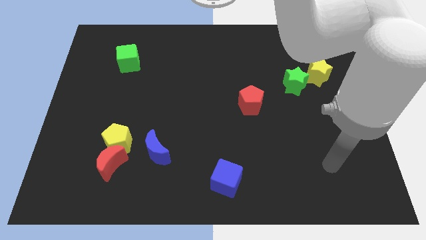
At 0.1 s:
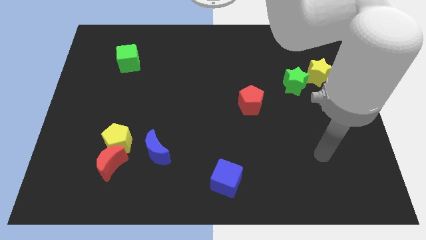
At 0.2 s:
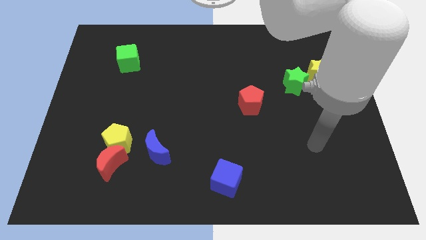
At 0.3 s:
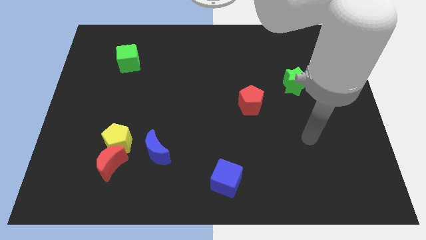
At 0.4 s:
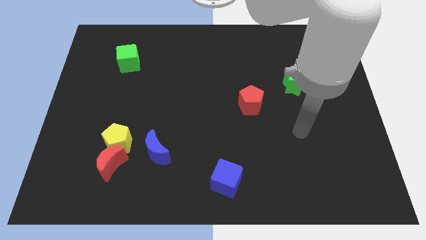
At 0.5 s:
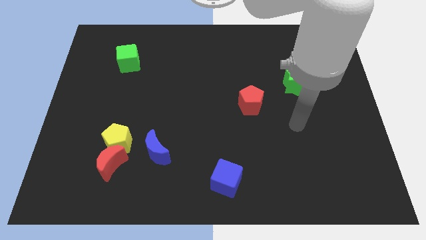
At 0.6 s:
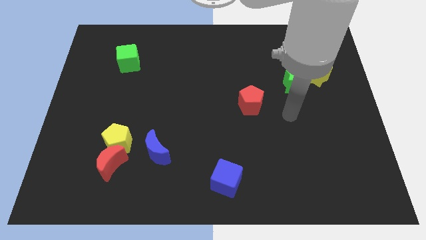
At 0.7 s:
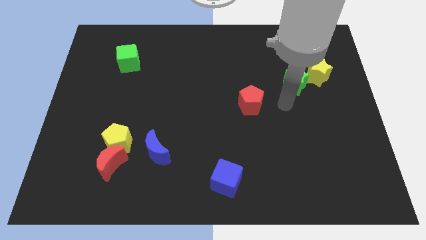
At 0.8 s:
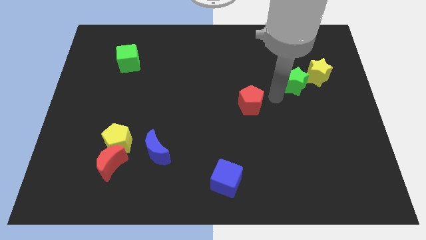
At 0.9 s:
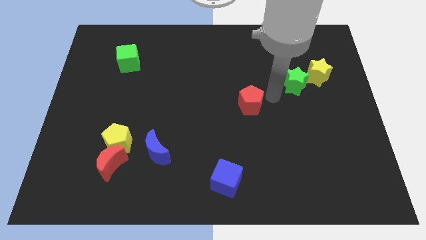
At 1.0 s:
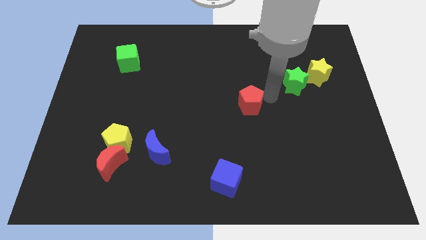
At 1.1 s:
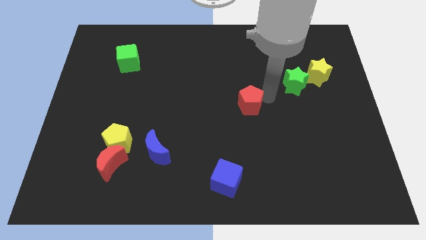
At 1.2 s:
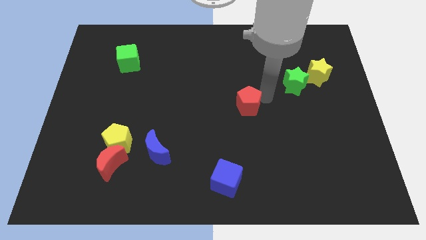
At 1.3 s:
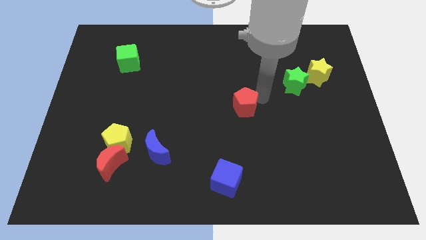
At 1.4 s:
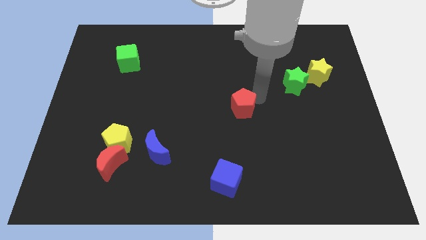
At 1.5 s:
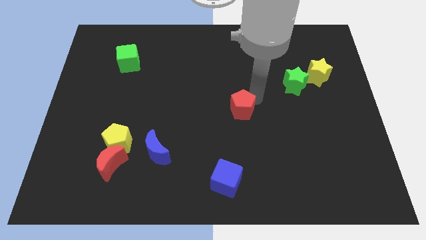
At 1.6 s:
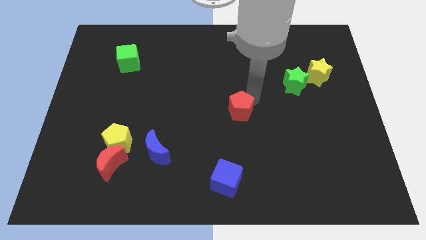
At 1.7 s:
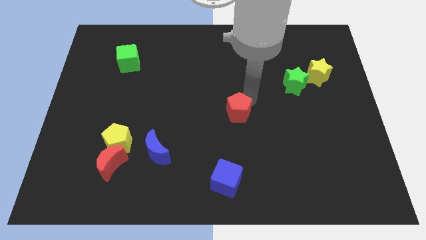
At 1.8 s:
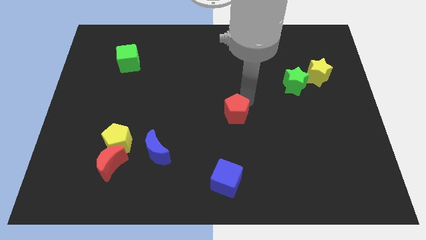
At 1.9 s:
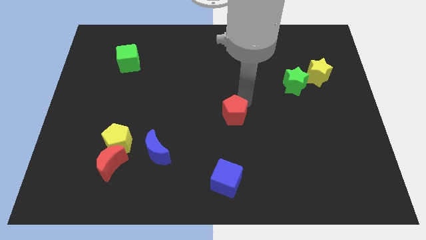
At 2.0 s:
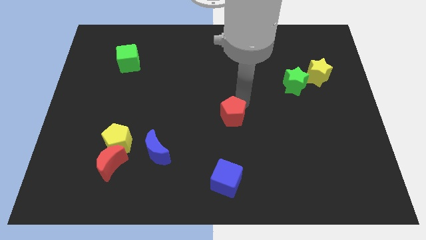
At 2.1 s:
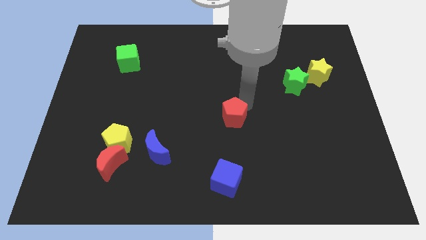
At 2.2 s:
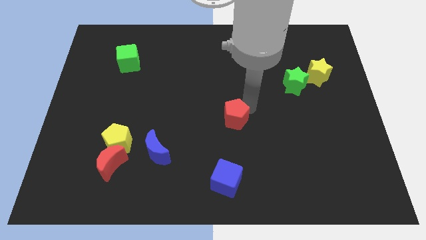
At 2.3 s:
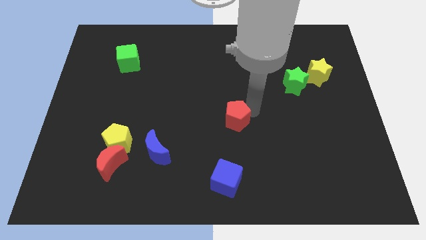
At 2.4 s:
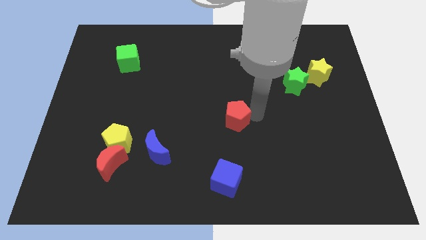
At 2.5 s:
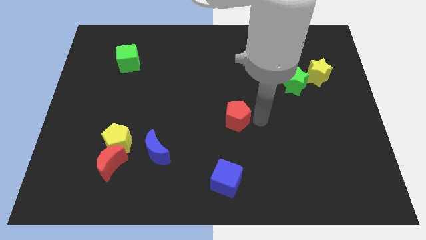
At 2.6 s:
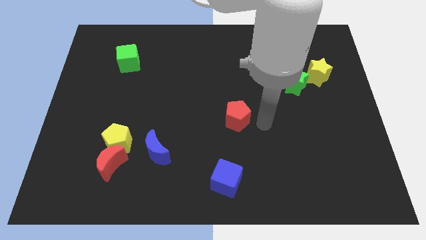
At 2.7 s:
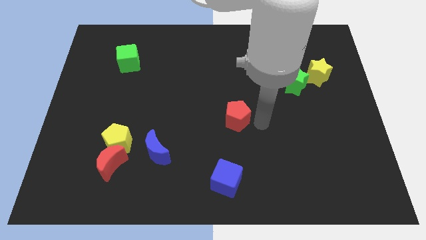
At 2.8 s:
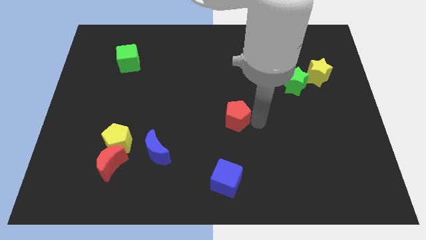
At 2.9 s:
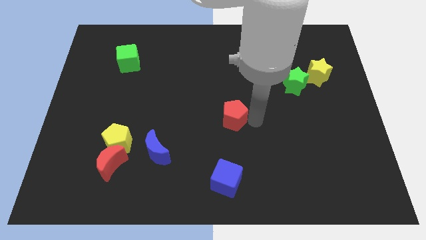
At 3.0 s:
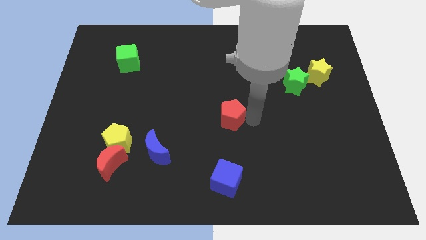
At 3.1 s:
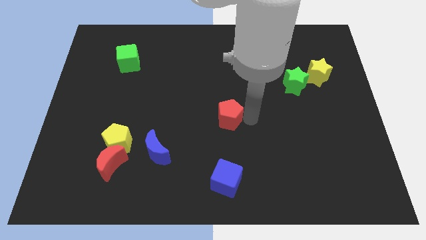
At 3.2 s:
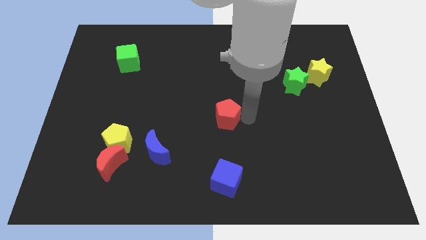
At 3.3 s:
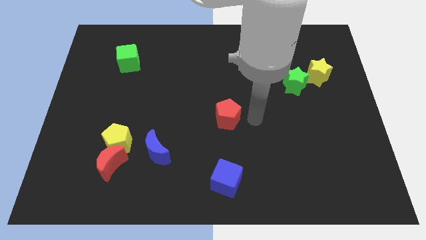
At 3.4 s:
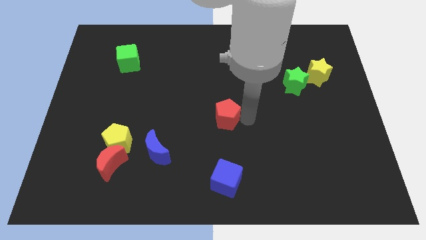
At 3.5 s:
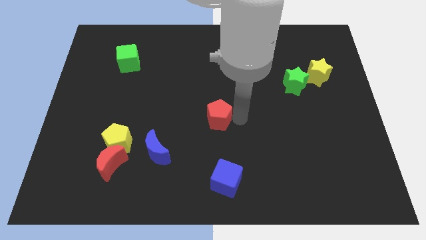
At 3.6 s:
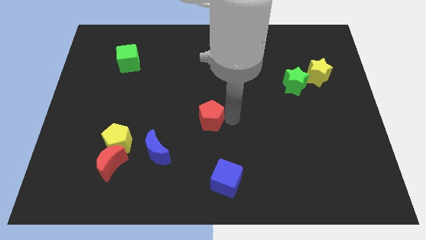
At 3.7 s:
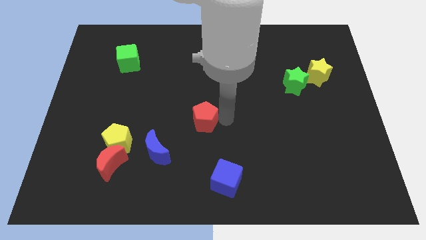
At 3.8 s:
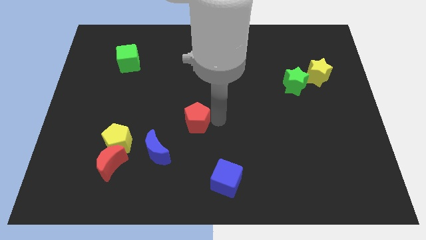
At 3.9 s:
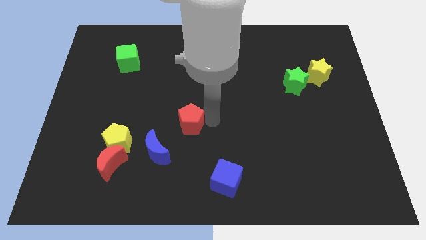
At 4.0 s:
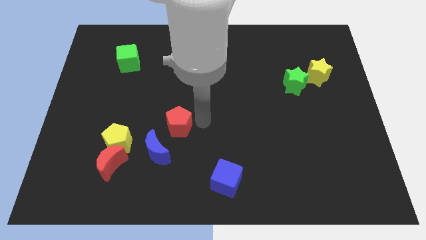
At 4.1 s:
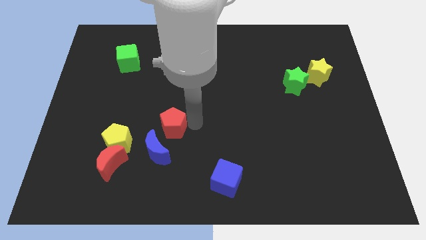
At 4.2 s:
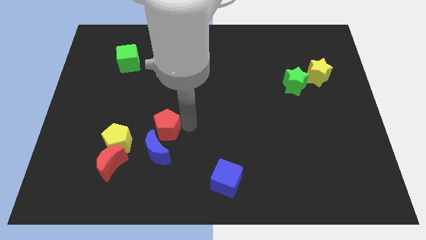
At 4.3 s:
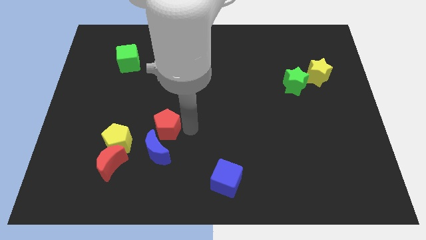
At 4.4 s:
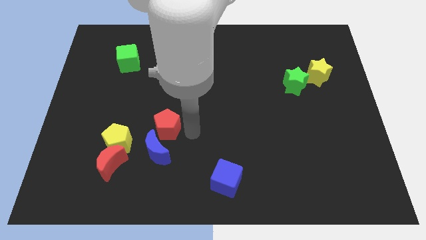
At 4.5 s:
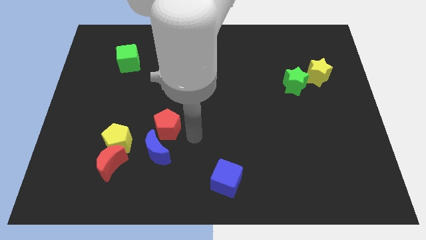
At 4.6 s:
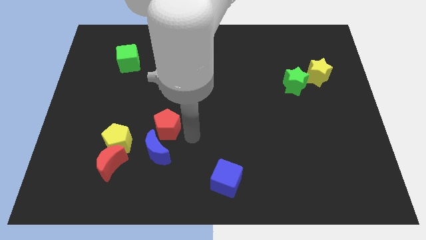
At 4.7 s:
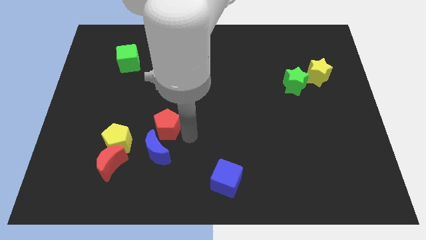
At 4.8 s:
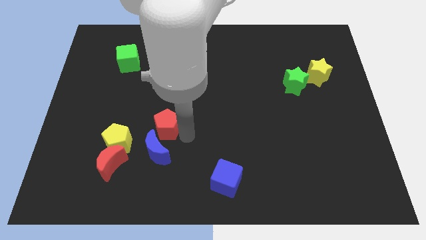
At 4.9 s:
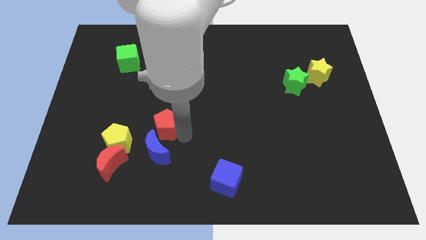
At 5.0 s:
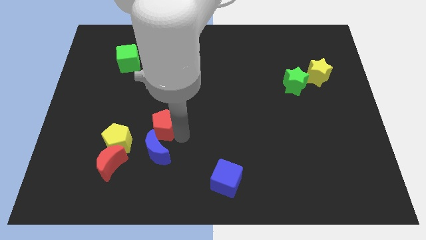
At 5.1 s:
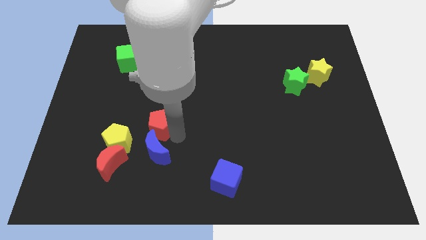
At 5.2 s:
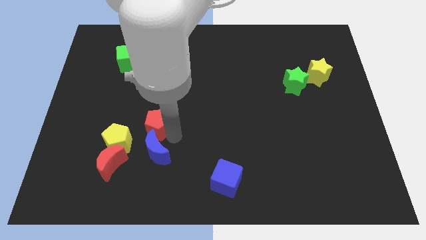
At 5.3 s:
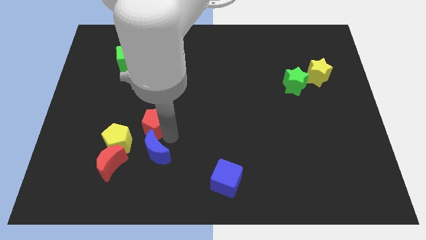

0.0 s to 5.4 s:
move the red pentagon left

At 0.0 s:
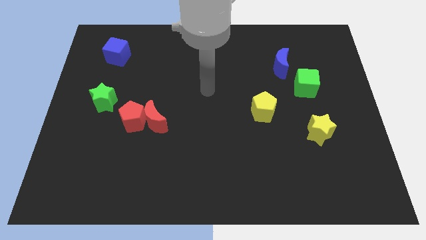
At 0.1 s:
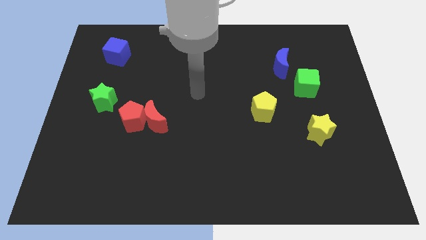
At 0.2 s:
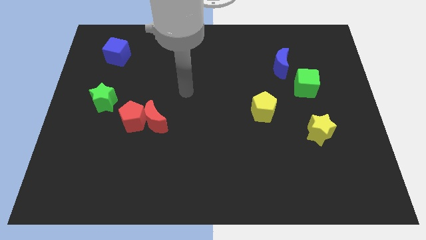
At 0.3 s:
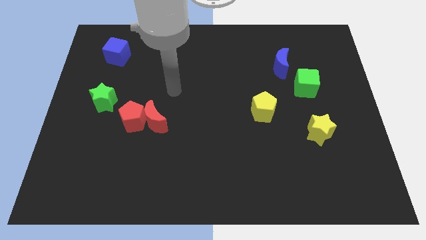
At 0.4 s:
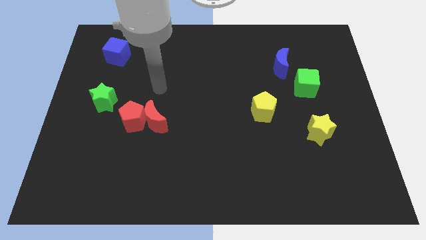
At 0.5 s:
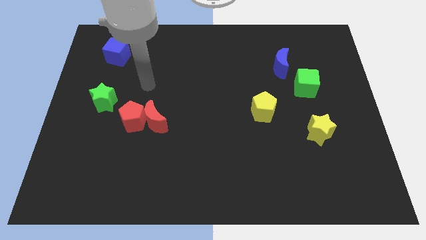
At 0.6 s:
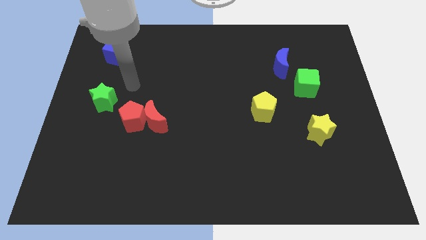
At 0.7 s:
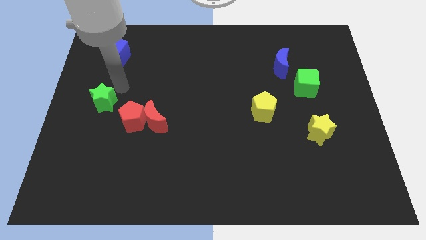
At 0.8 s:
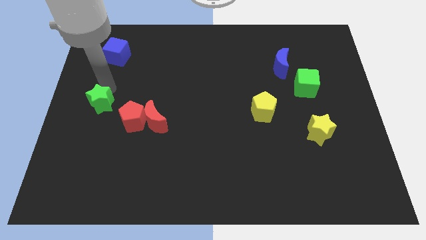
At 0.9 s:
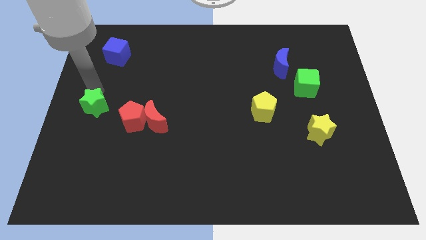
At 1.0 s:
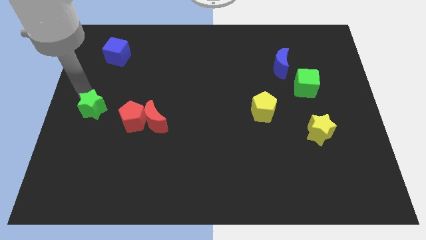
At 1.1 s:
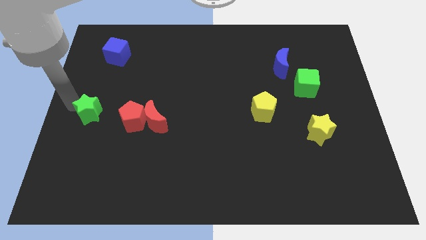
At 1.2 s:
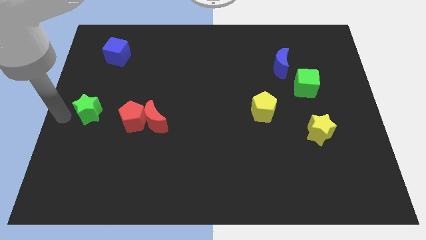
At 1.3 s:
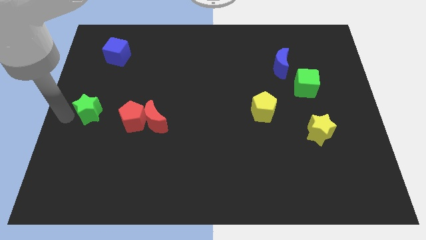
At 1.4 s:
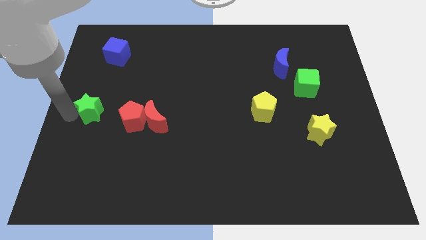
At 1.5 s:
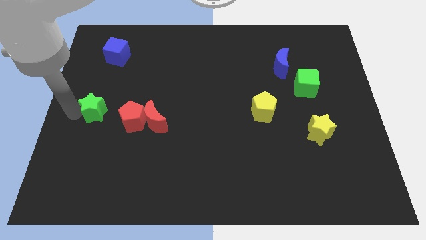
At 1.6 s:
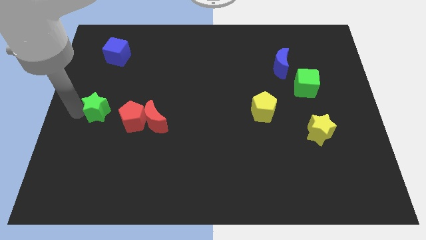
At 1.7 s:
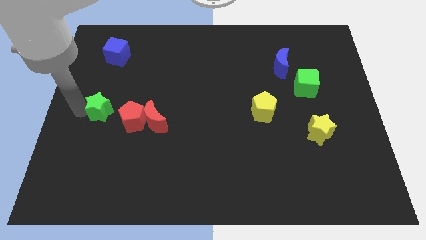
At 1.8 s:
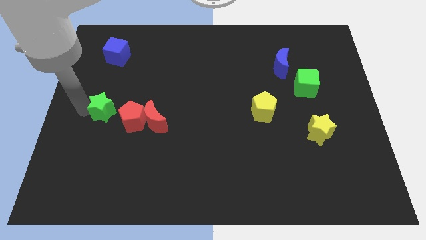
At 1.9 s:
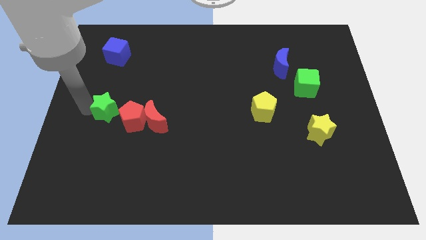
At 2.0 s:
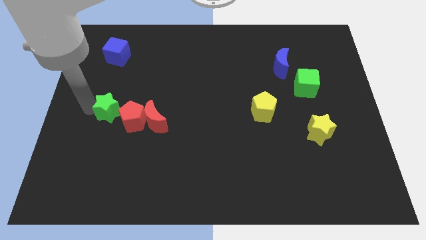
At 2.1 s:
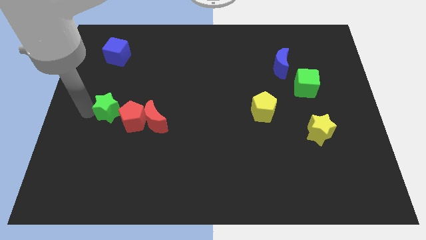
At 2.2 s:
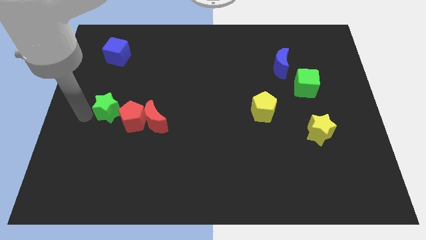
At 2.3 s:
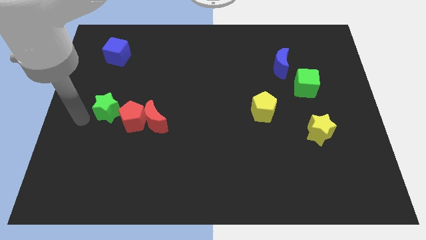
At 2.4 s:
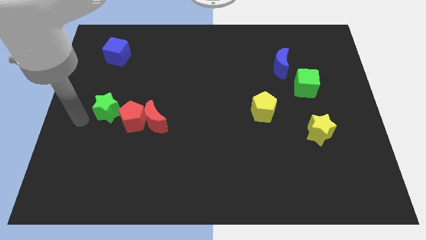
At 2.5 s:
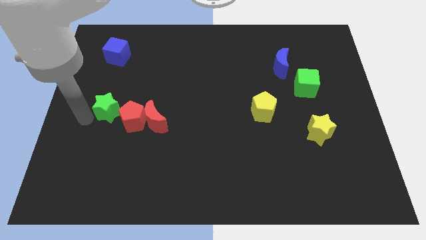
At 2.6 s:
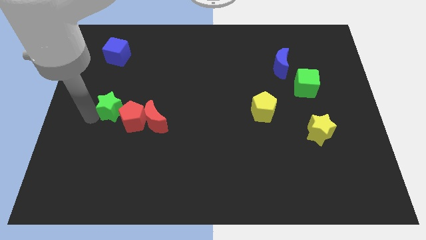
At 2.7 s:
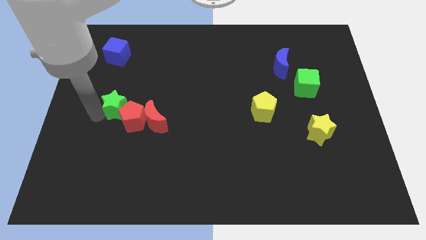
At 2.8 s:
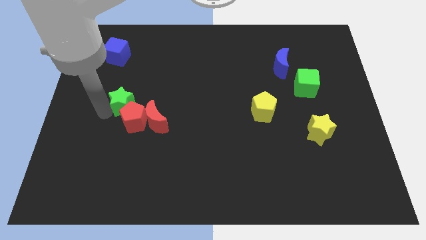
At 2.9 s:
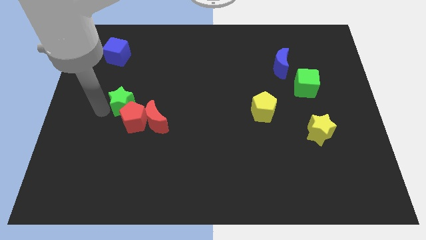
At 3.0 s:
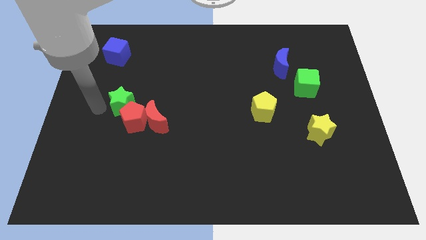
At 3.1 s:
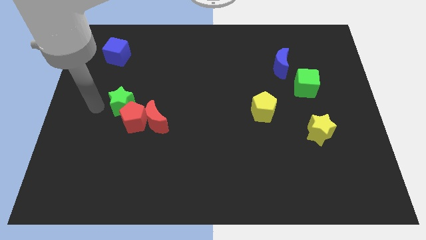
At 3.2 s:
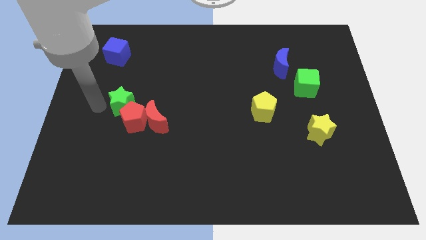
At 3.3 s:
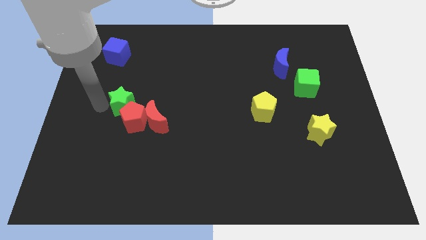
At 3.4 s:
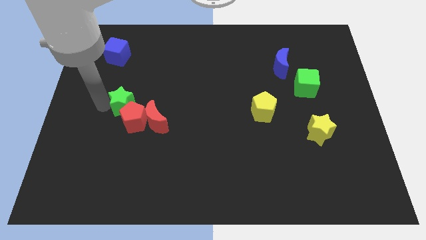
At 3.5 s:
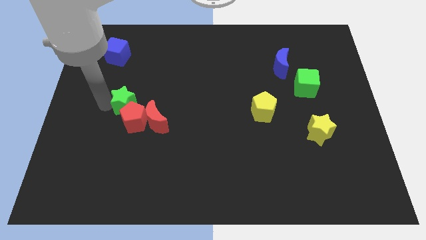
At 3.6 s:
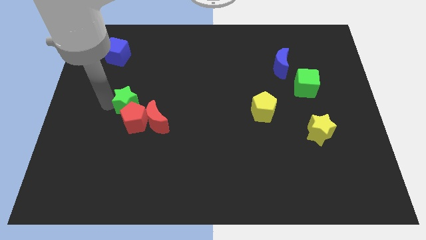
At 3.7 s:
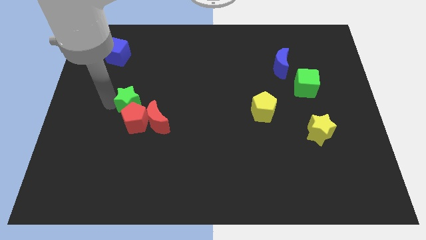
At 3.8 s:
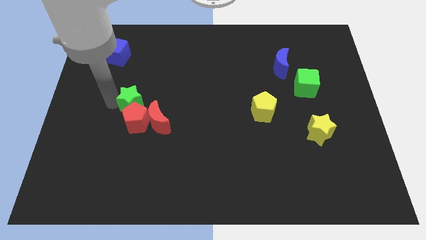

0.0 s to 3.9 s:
move the green star somewhat to the right
